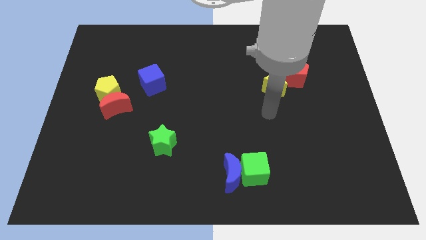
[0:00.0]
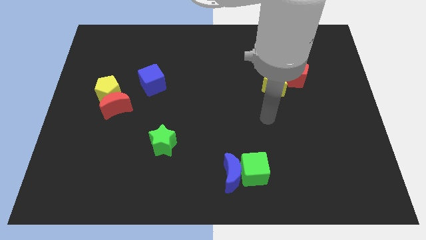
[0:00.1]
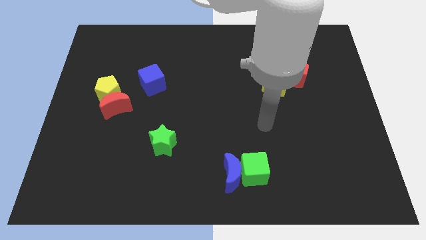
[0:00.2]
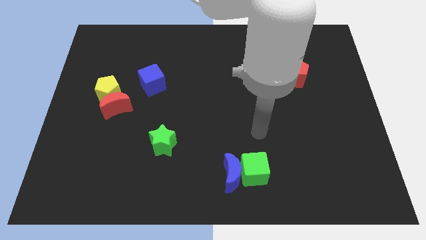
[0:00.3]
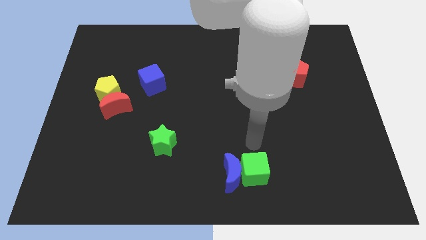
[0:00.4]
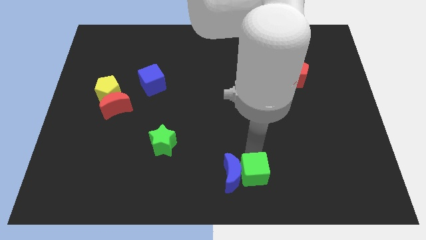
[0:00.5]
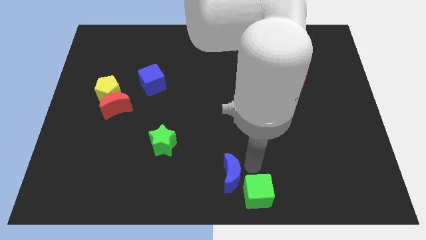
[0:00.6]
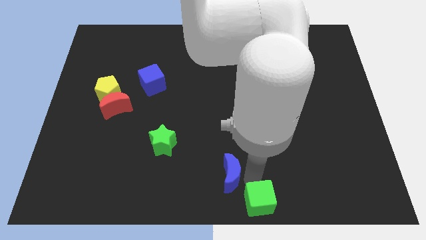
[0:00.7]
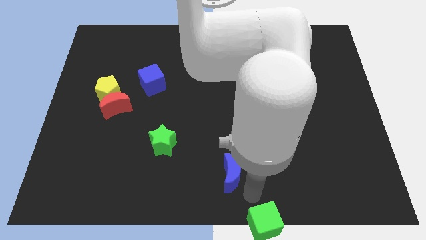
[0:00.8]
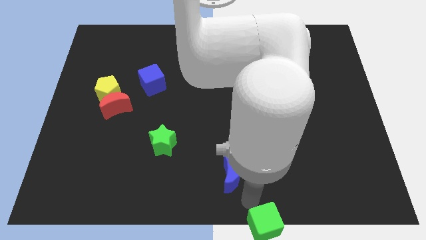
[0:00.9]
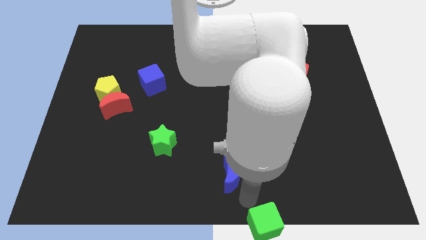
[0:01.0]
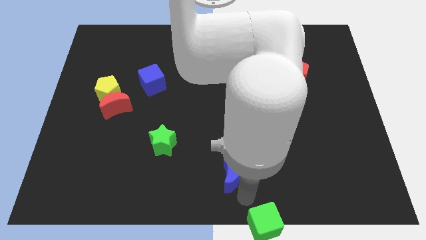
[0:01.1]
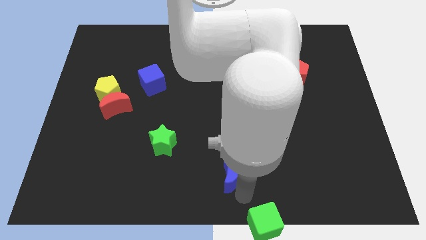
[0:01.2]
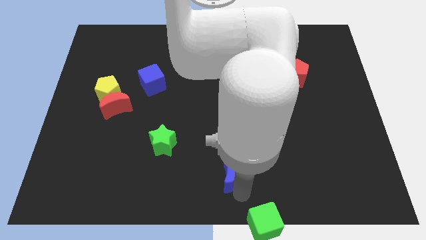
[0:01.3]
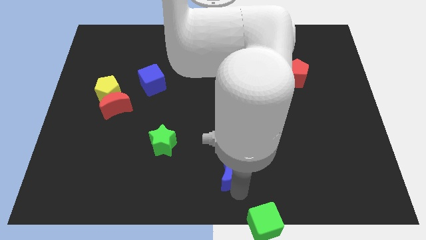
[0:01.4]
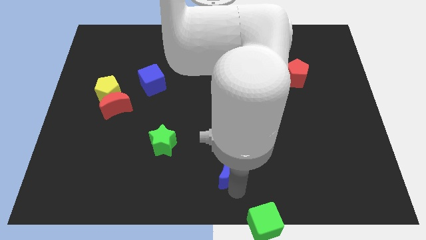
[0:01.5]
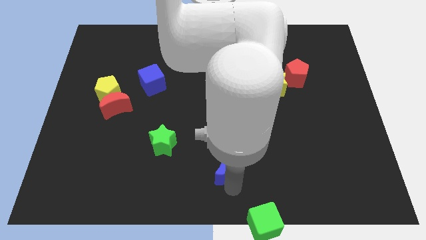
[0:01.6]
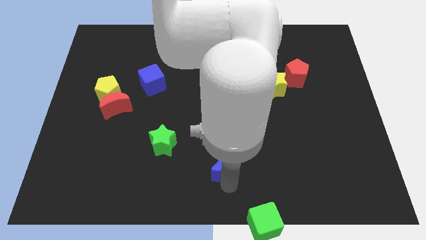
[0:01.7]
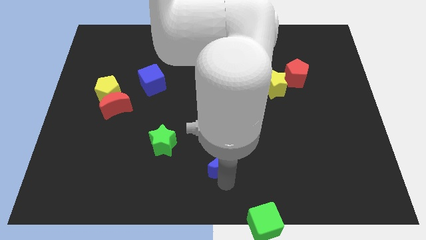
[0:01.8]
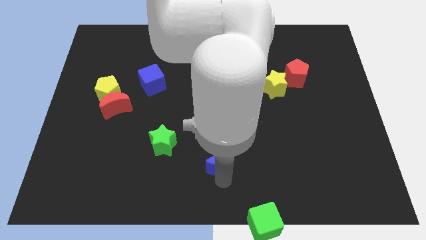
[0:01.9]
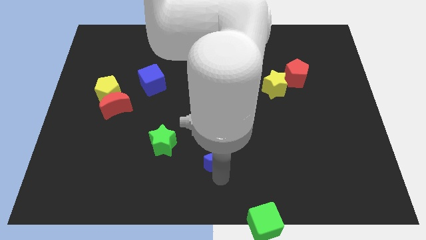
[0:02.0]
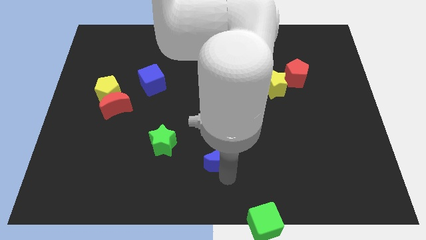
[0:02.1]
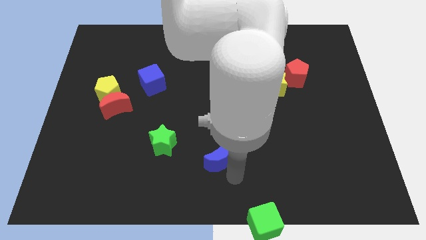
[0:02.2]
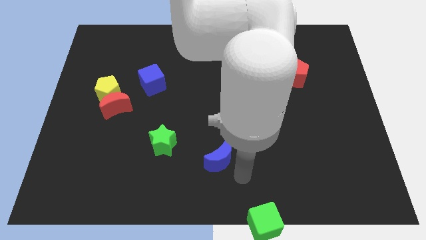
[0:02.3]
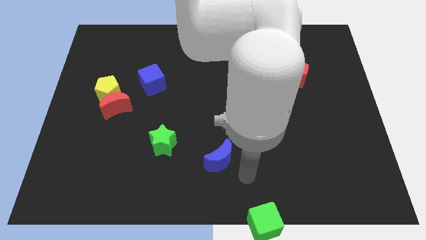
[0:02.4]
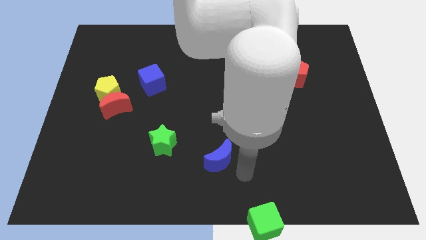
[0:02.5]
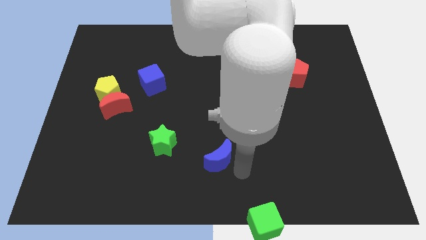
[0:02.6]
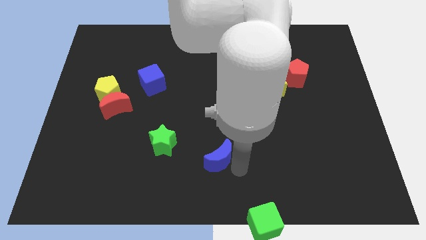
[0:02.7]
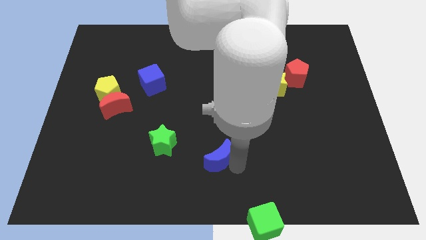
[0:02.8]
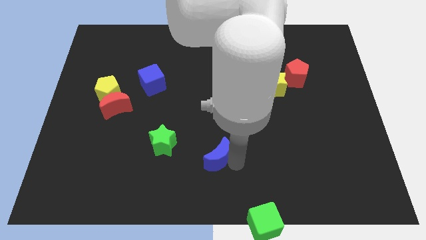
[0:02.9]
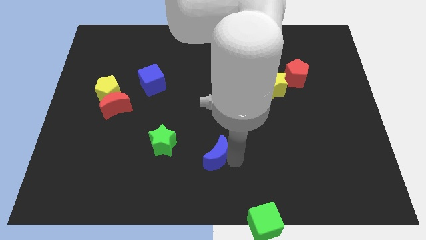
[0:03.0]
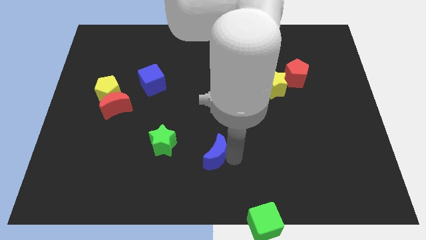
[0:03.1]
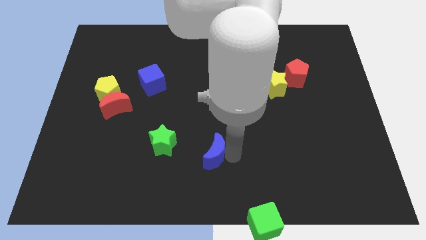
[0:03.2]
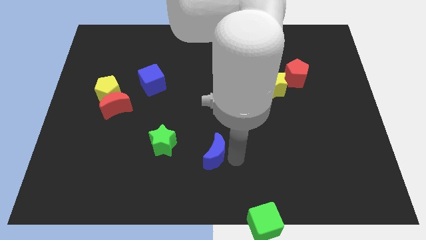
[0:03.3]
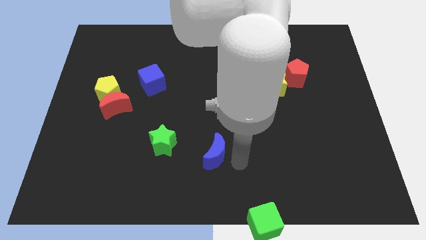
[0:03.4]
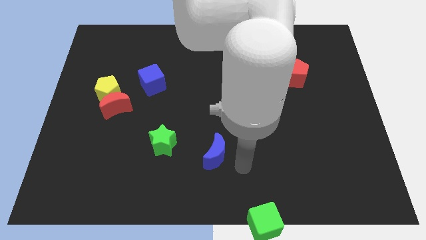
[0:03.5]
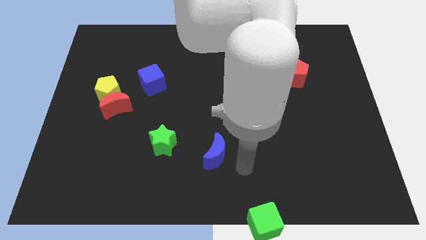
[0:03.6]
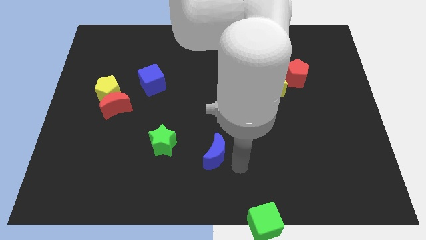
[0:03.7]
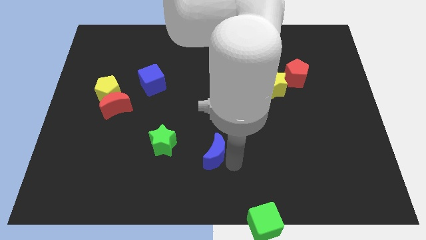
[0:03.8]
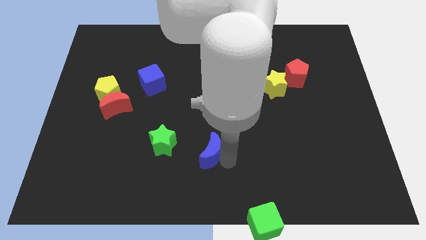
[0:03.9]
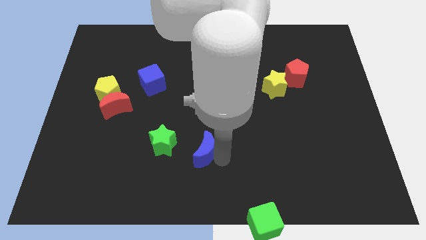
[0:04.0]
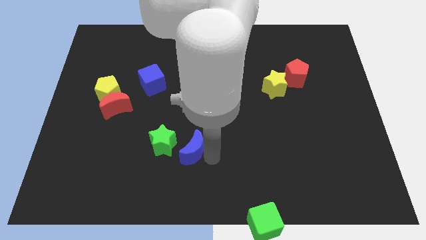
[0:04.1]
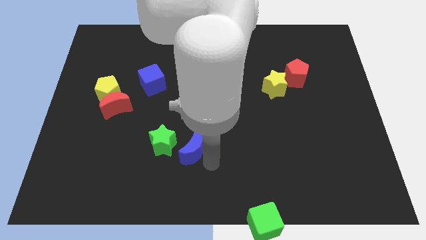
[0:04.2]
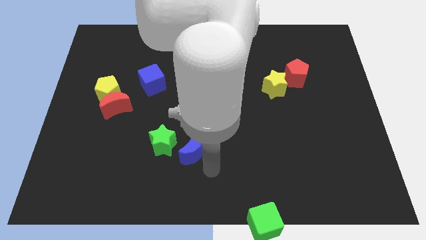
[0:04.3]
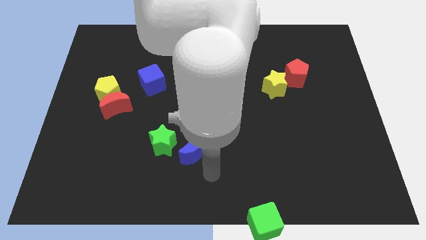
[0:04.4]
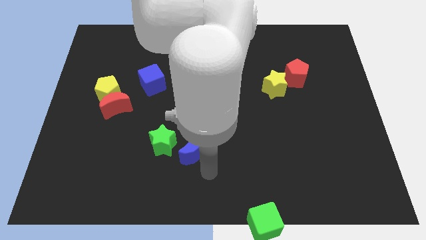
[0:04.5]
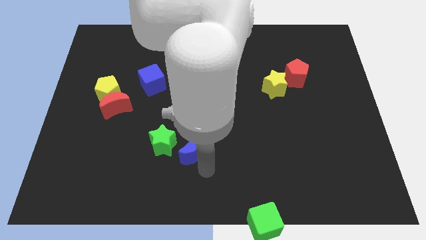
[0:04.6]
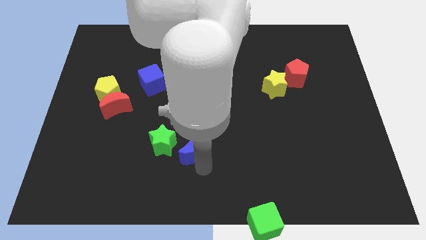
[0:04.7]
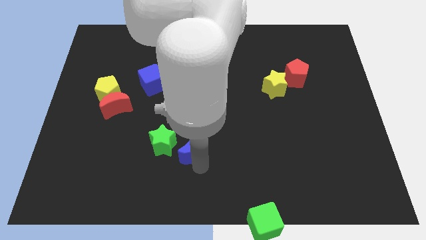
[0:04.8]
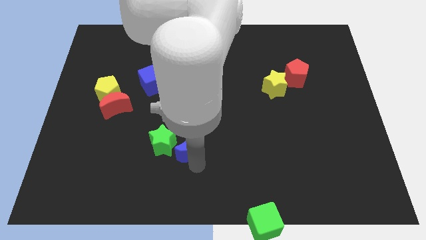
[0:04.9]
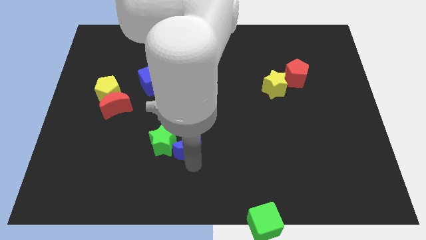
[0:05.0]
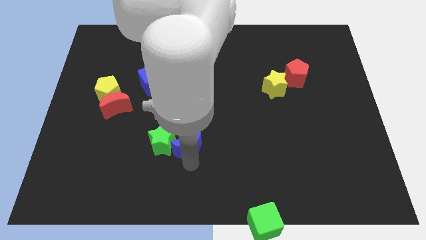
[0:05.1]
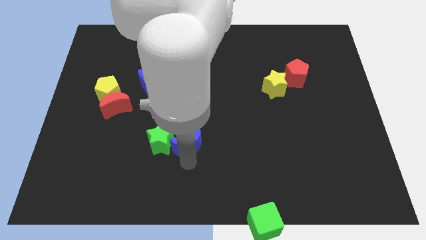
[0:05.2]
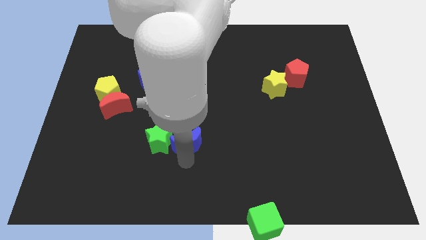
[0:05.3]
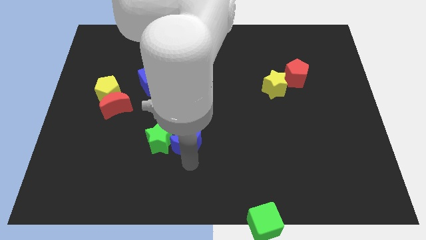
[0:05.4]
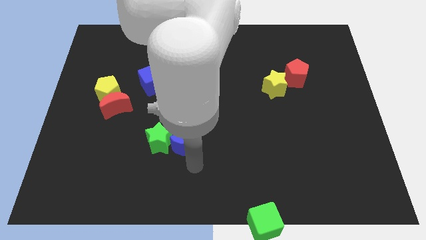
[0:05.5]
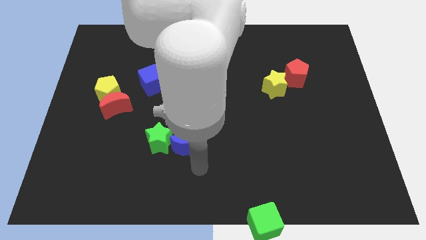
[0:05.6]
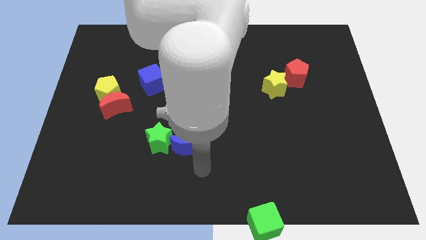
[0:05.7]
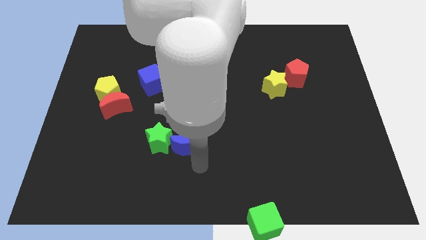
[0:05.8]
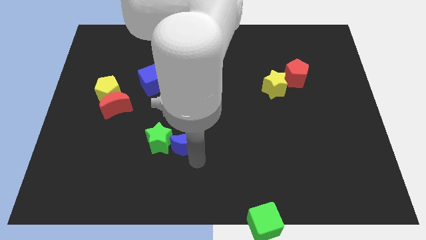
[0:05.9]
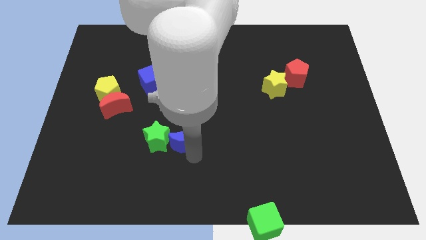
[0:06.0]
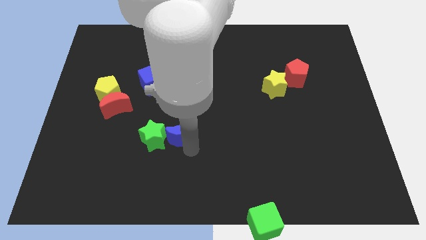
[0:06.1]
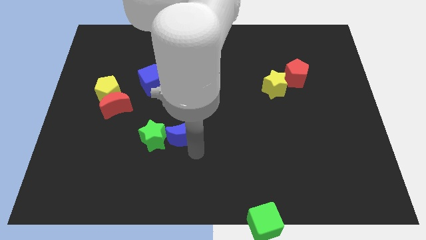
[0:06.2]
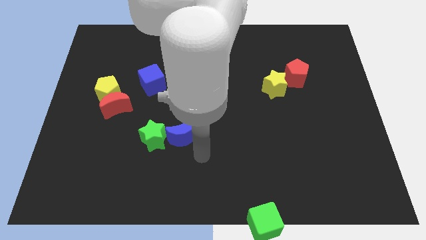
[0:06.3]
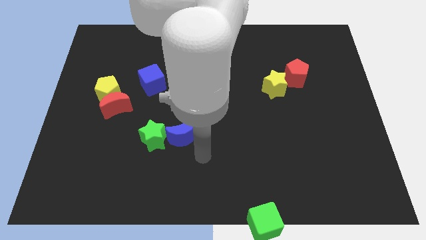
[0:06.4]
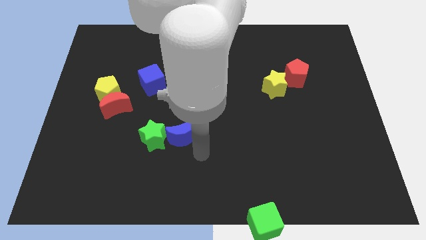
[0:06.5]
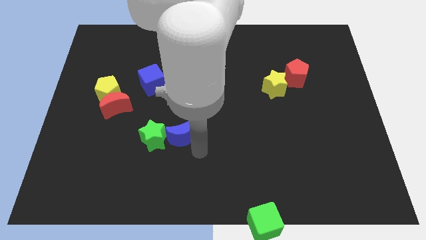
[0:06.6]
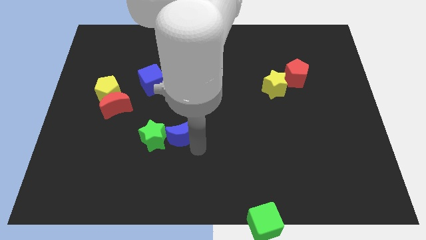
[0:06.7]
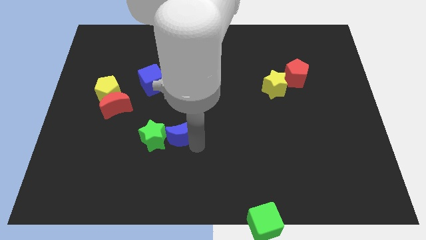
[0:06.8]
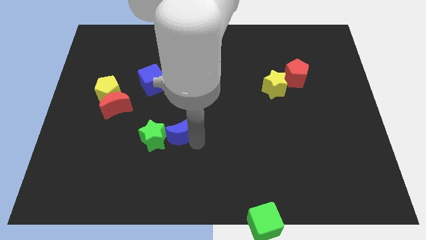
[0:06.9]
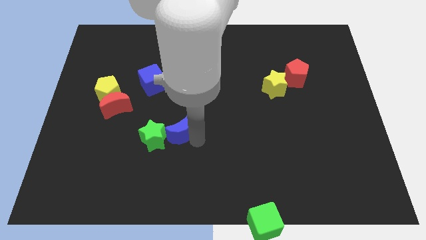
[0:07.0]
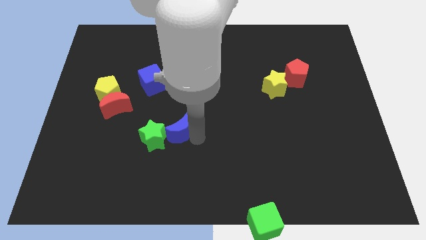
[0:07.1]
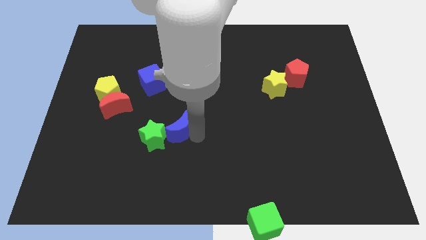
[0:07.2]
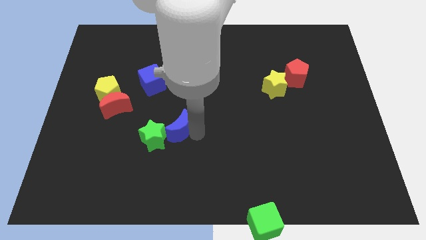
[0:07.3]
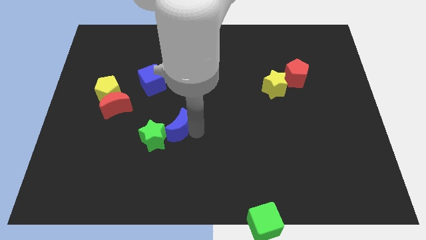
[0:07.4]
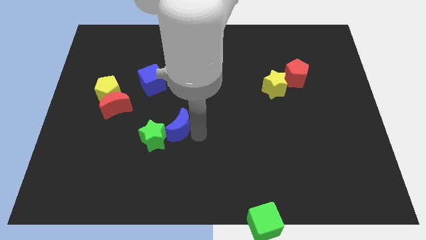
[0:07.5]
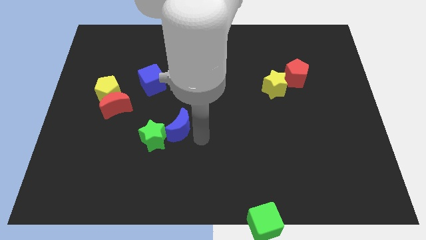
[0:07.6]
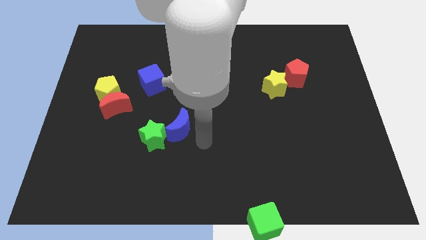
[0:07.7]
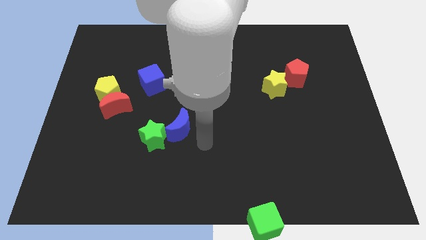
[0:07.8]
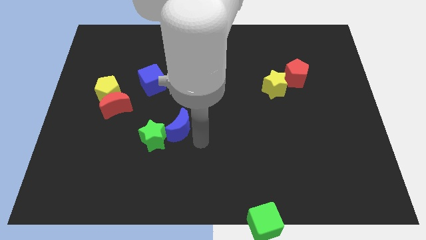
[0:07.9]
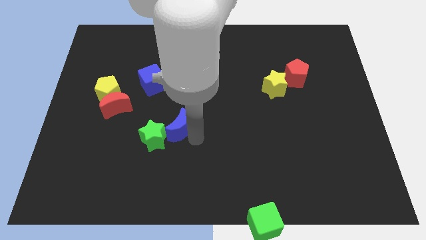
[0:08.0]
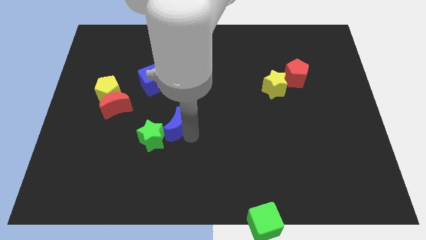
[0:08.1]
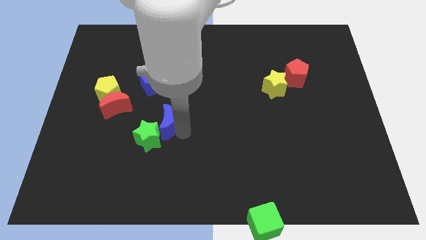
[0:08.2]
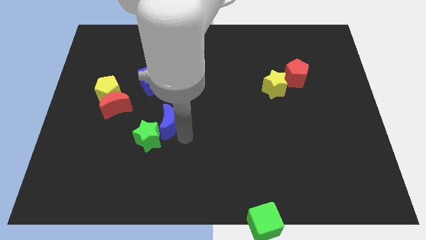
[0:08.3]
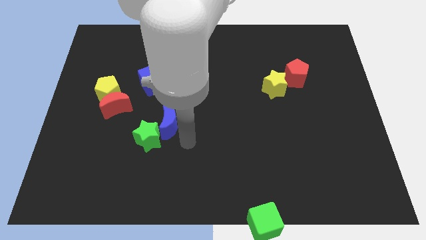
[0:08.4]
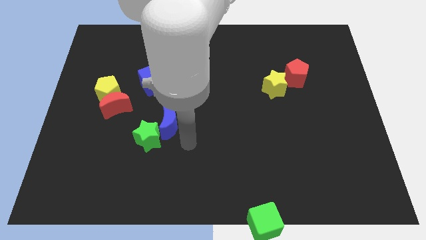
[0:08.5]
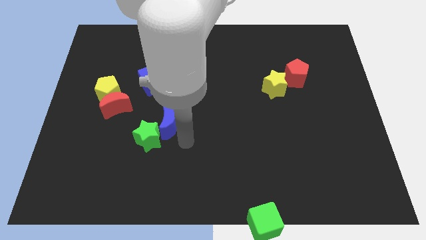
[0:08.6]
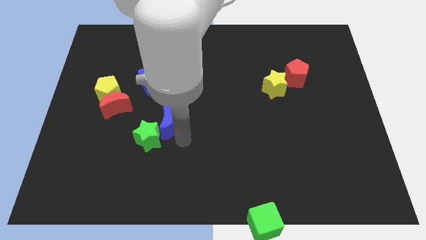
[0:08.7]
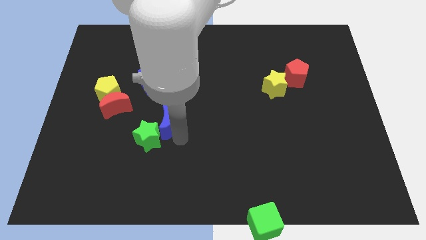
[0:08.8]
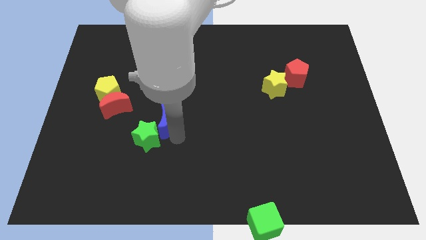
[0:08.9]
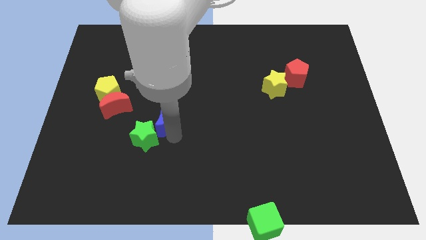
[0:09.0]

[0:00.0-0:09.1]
move the blue moon upwards and left
